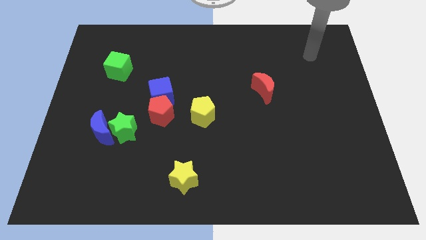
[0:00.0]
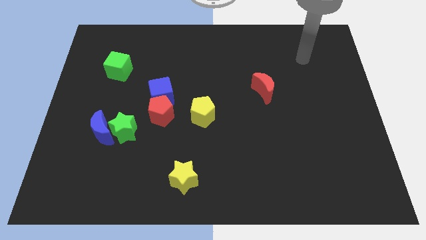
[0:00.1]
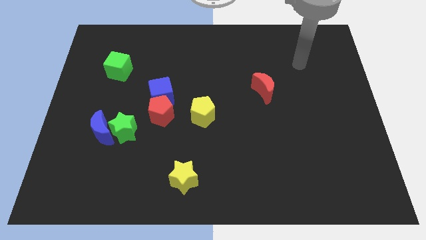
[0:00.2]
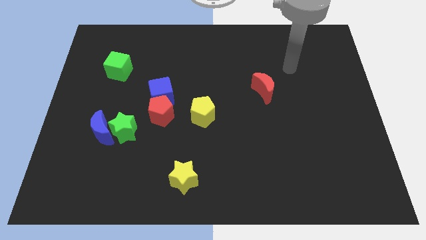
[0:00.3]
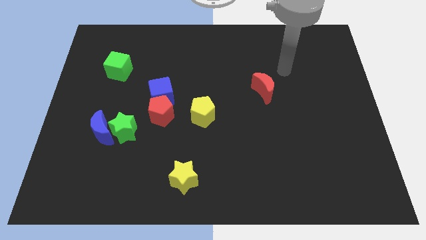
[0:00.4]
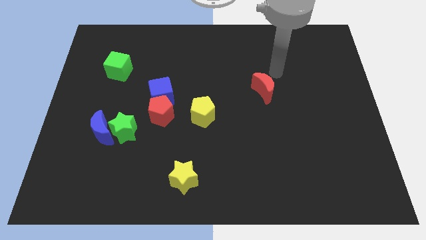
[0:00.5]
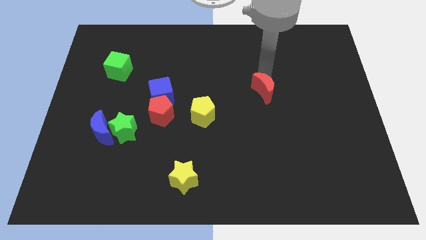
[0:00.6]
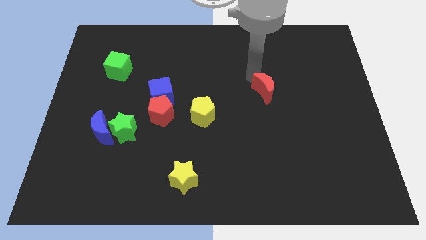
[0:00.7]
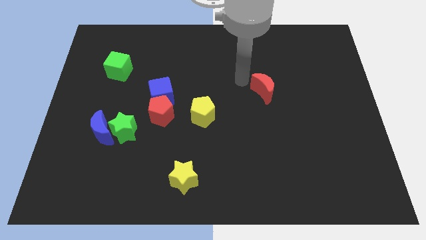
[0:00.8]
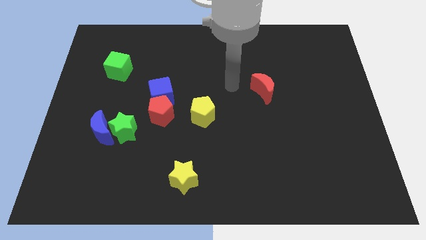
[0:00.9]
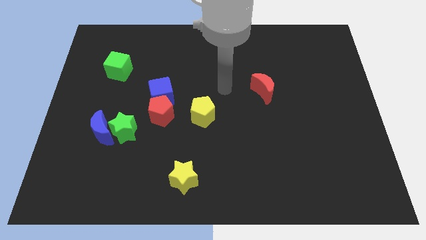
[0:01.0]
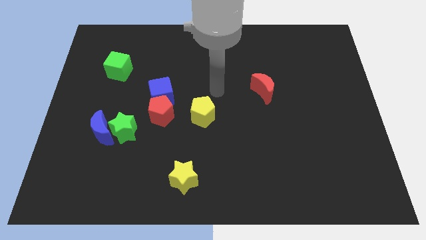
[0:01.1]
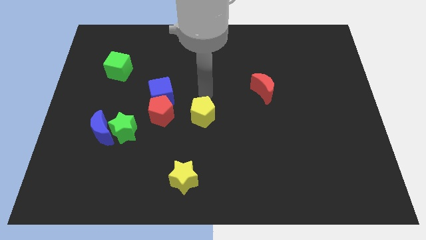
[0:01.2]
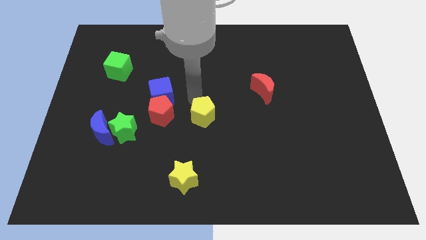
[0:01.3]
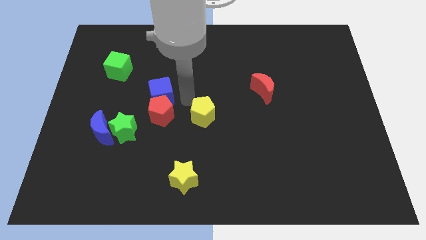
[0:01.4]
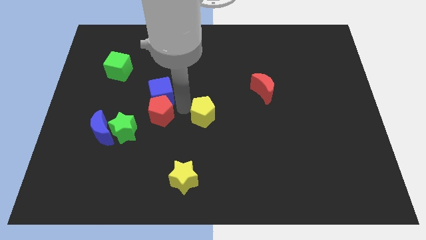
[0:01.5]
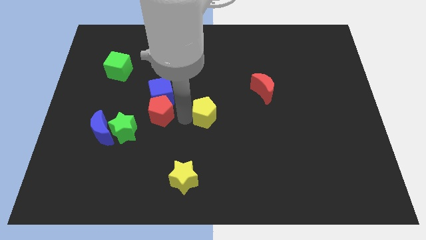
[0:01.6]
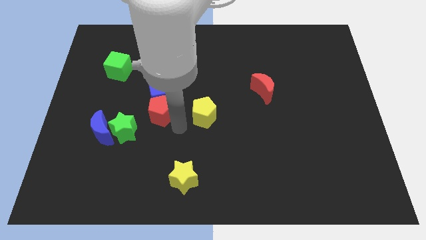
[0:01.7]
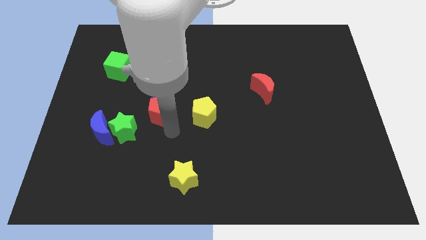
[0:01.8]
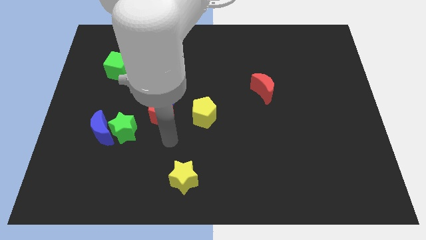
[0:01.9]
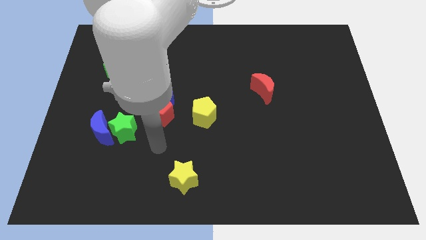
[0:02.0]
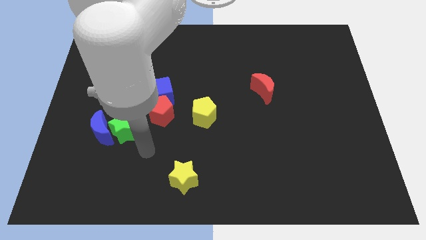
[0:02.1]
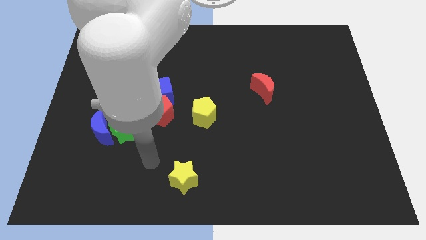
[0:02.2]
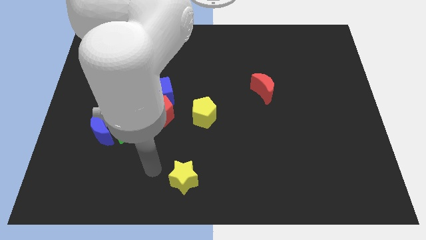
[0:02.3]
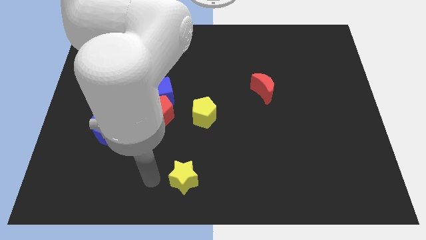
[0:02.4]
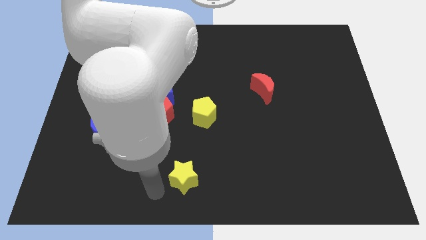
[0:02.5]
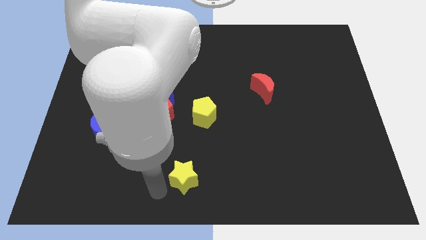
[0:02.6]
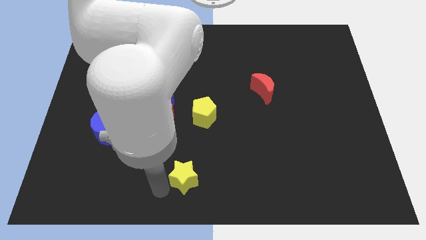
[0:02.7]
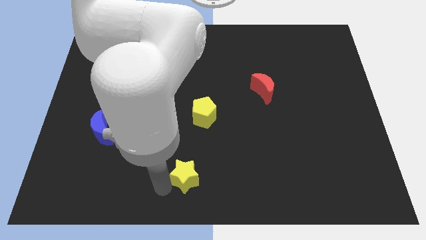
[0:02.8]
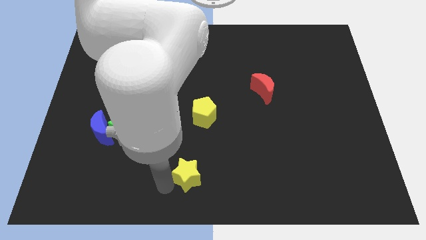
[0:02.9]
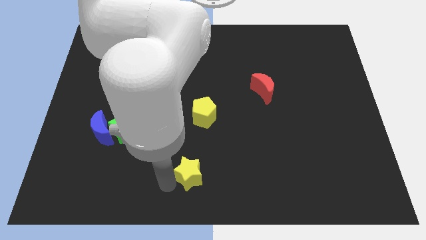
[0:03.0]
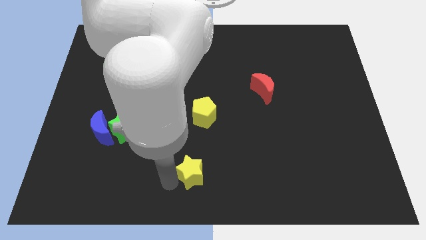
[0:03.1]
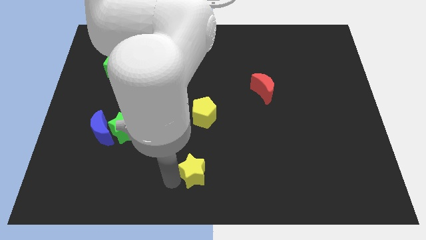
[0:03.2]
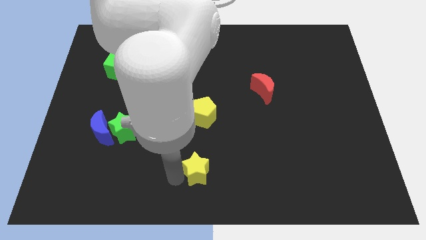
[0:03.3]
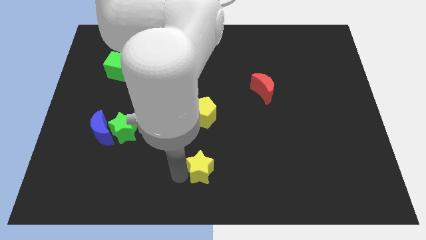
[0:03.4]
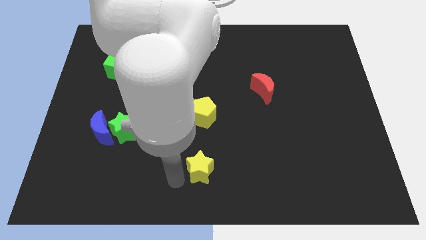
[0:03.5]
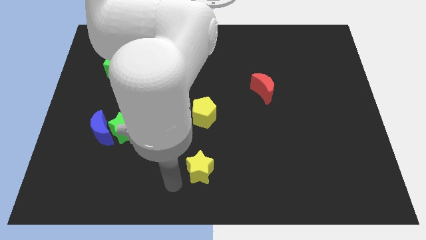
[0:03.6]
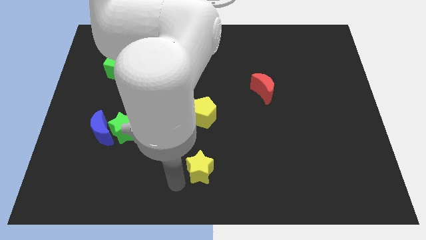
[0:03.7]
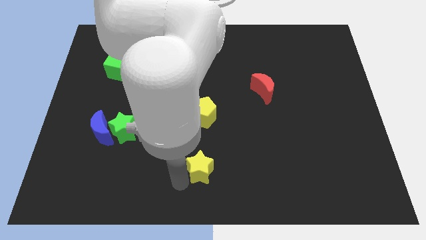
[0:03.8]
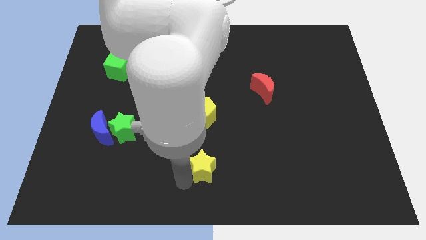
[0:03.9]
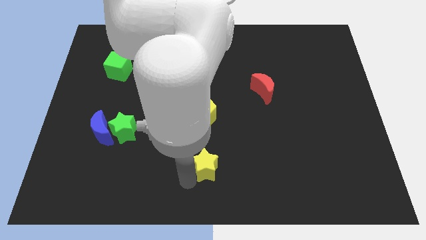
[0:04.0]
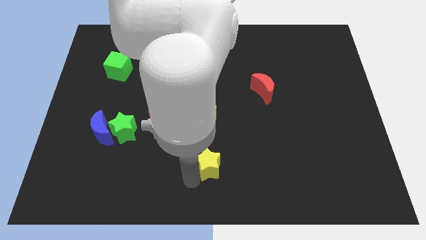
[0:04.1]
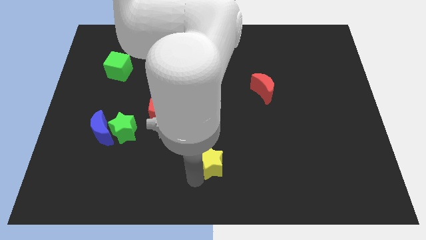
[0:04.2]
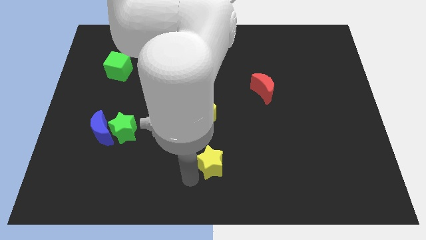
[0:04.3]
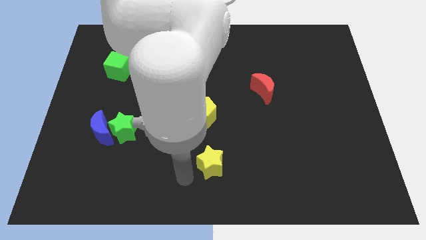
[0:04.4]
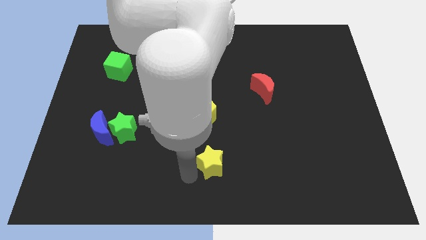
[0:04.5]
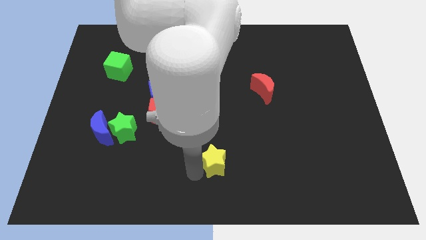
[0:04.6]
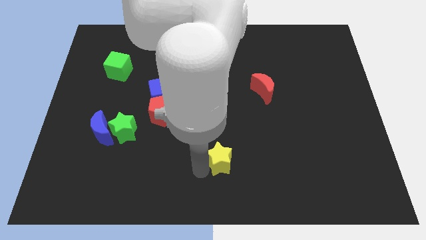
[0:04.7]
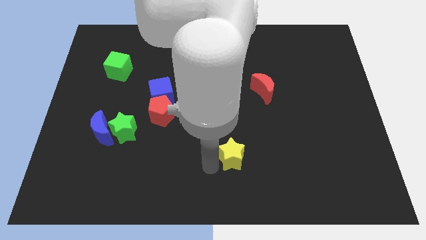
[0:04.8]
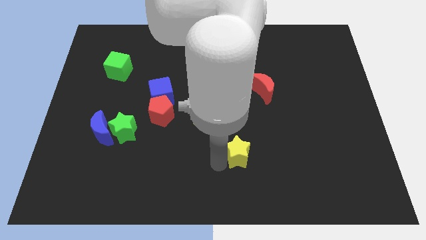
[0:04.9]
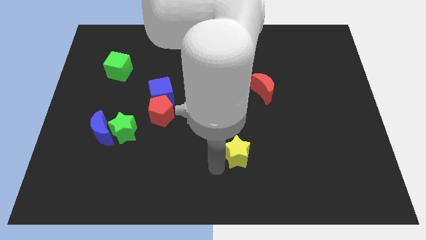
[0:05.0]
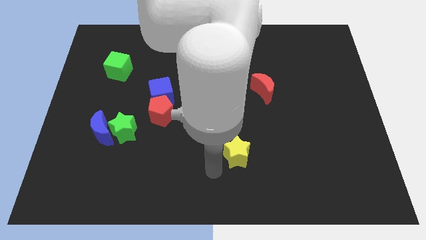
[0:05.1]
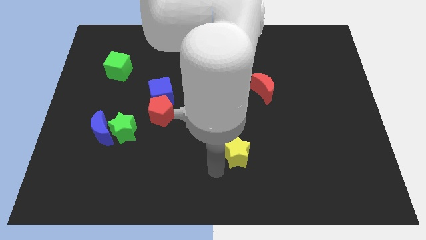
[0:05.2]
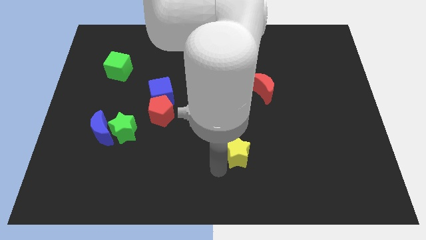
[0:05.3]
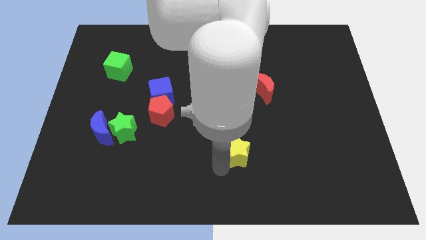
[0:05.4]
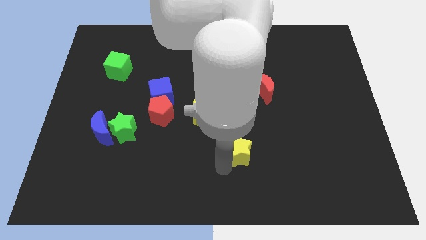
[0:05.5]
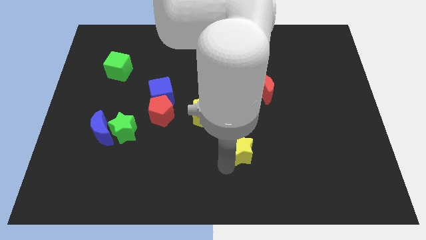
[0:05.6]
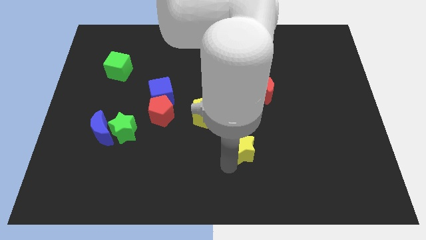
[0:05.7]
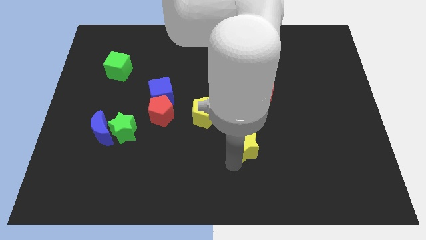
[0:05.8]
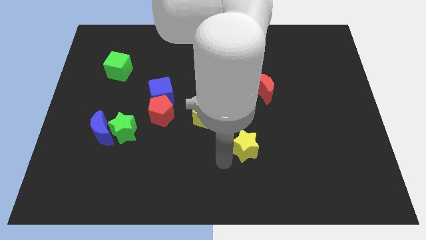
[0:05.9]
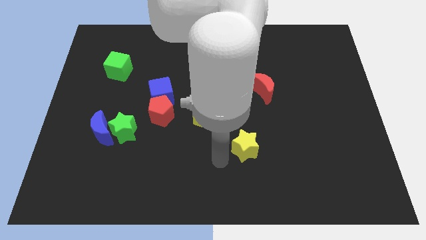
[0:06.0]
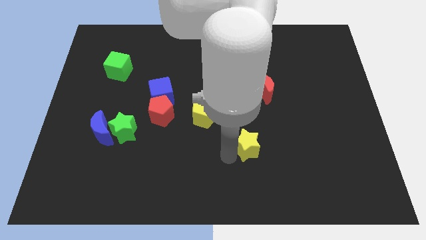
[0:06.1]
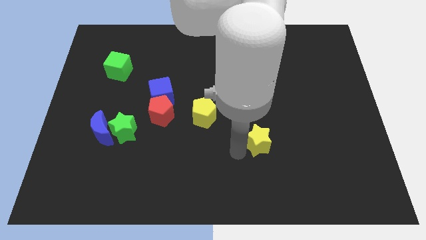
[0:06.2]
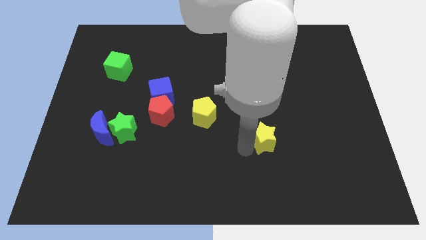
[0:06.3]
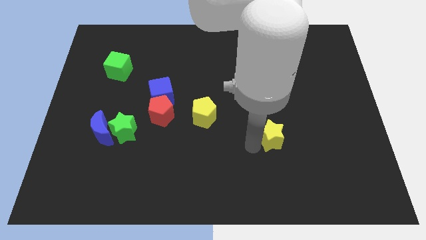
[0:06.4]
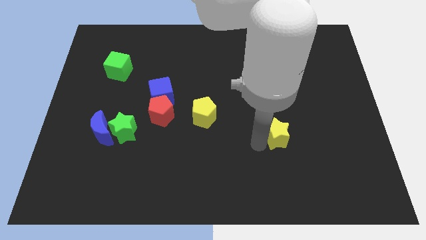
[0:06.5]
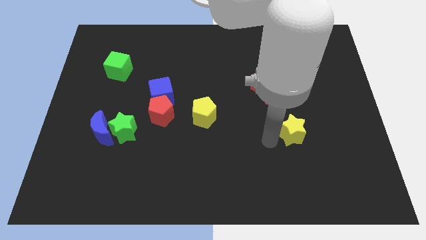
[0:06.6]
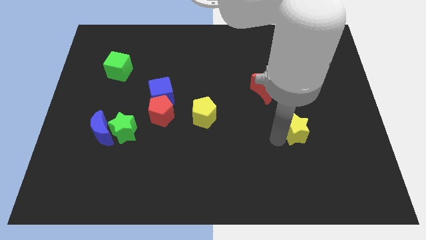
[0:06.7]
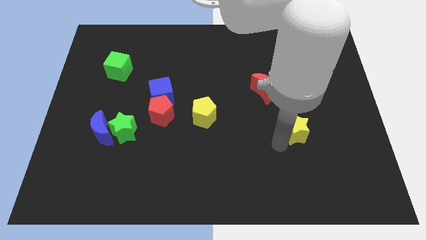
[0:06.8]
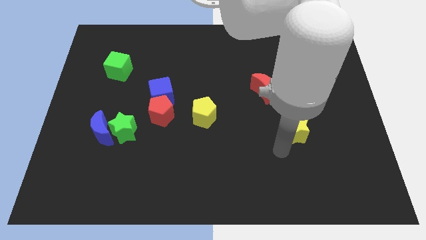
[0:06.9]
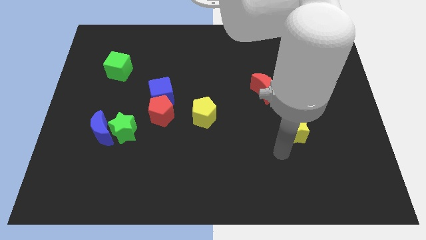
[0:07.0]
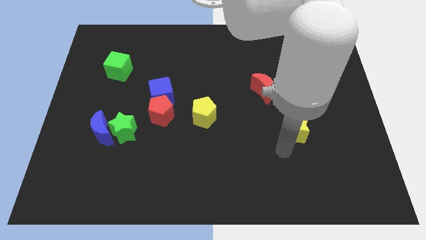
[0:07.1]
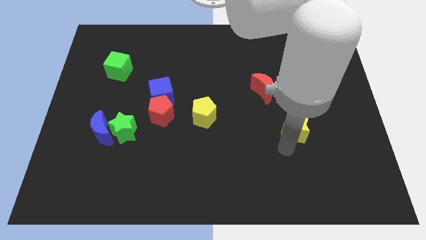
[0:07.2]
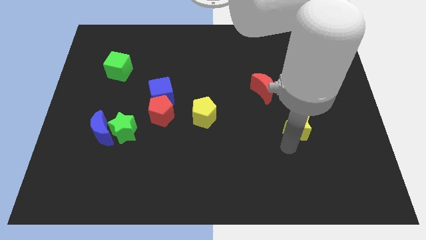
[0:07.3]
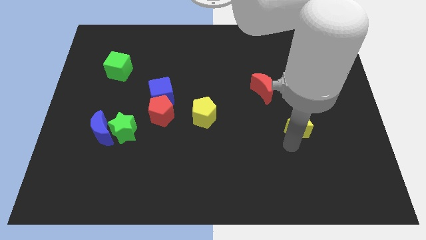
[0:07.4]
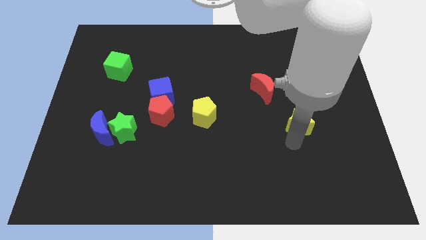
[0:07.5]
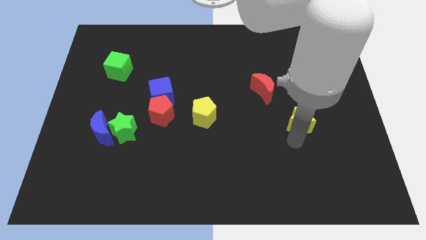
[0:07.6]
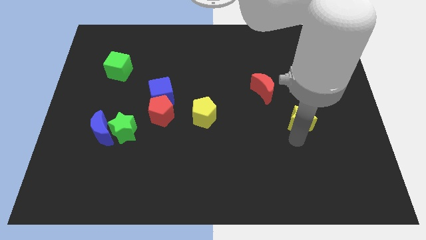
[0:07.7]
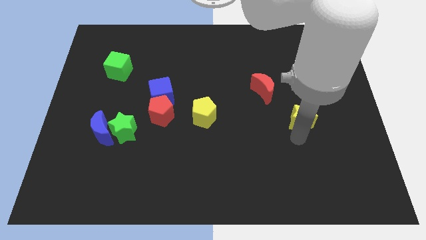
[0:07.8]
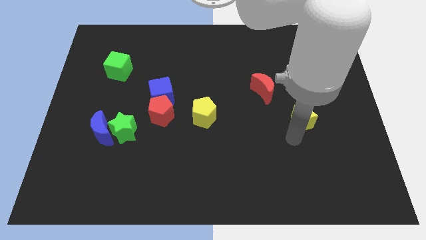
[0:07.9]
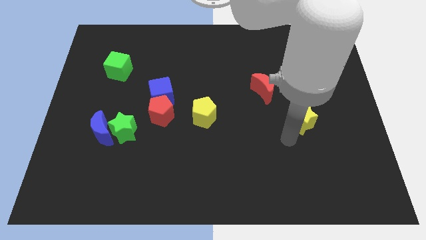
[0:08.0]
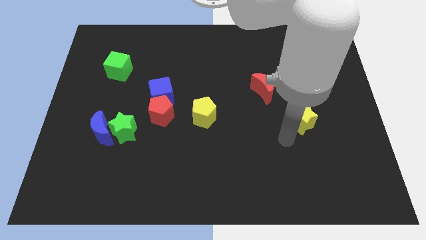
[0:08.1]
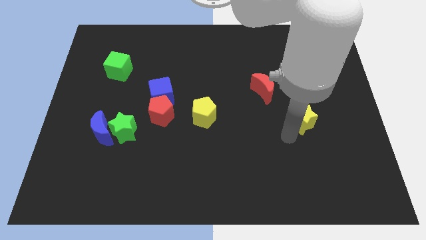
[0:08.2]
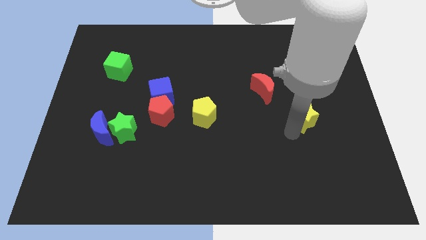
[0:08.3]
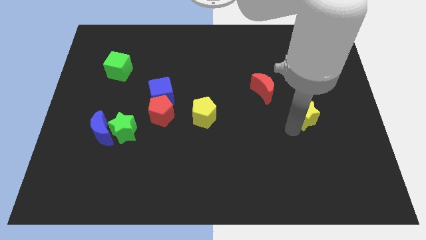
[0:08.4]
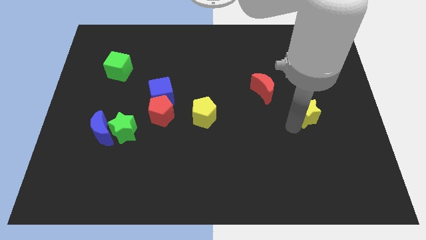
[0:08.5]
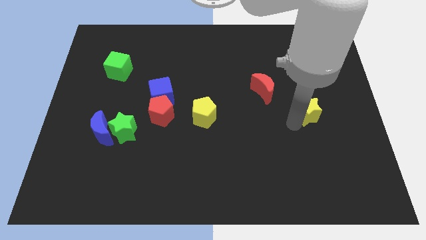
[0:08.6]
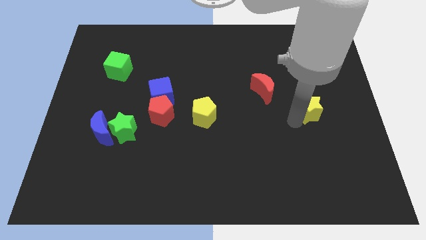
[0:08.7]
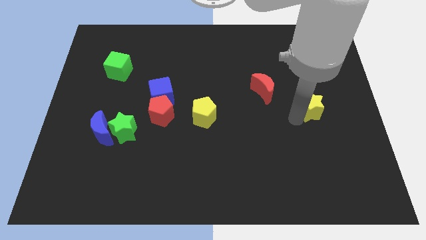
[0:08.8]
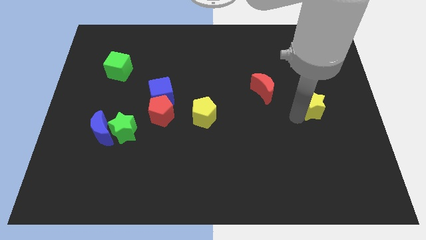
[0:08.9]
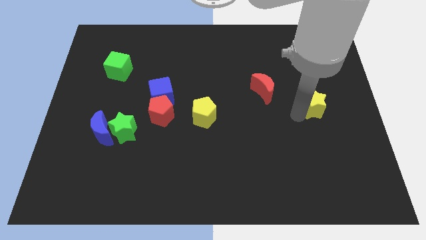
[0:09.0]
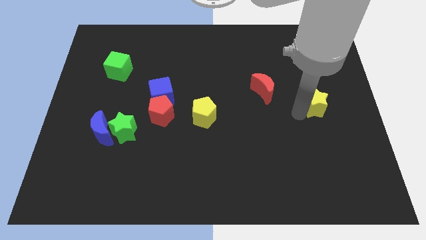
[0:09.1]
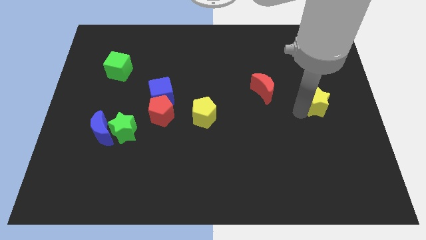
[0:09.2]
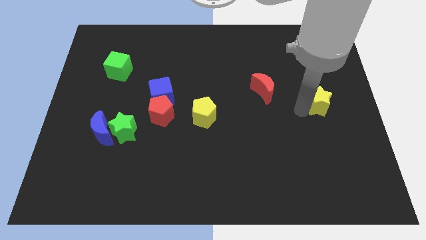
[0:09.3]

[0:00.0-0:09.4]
move the yellow star to the right side of the board
